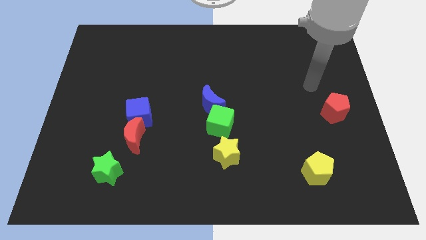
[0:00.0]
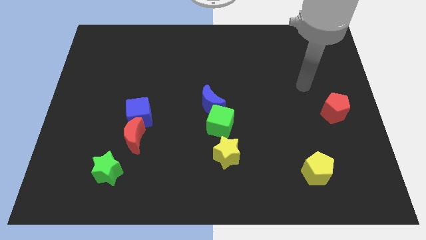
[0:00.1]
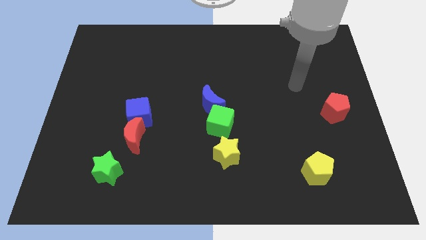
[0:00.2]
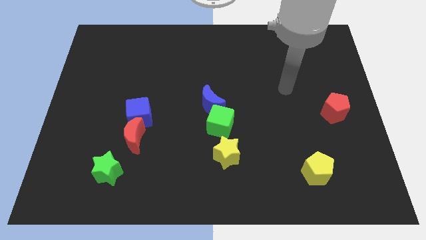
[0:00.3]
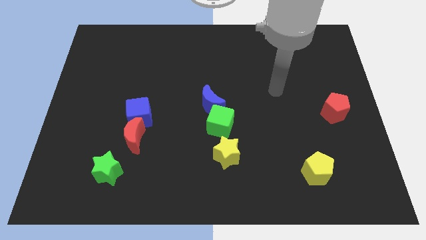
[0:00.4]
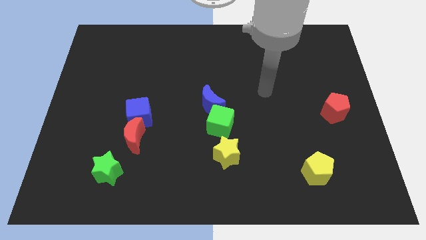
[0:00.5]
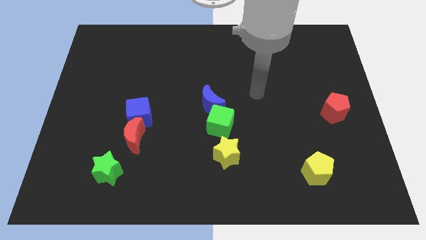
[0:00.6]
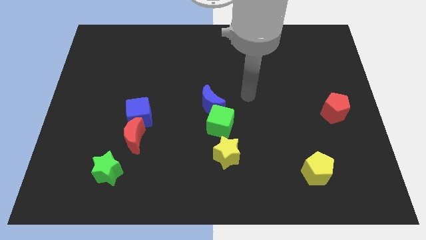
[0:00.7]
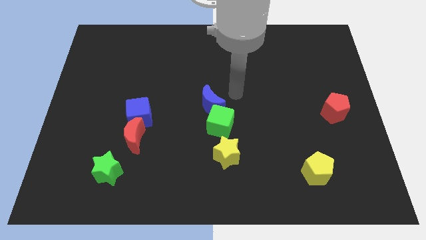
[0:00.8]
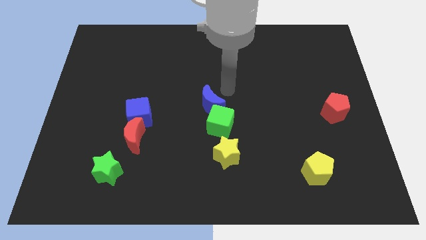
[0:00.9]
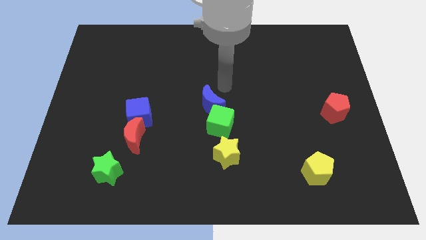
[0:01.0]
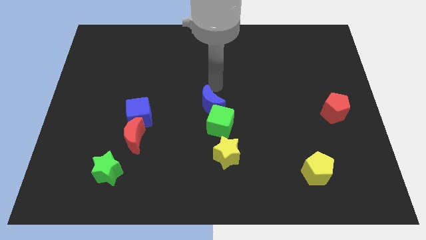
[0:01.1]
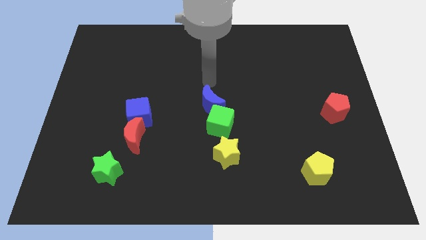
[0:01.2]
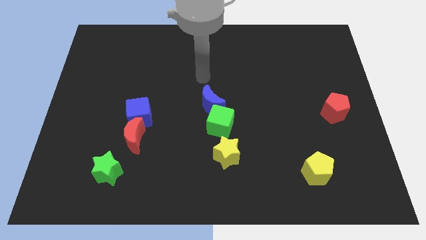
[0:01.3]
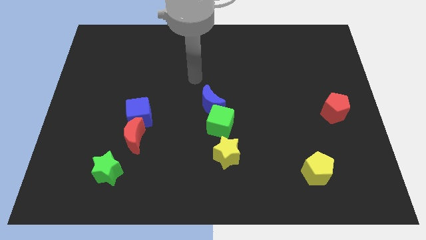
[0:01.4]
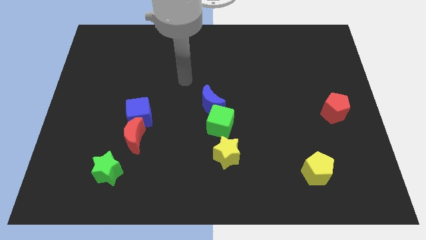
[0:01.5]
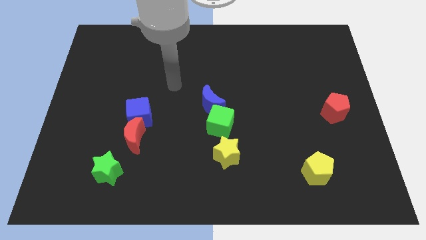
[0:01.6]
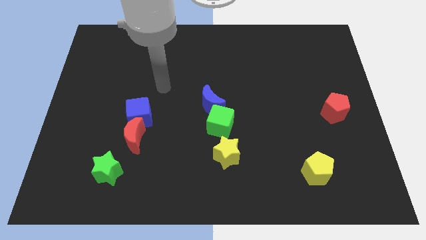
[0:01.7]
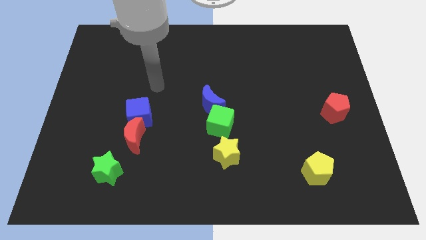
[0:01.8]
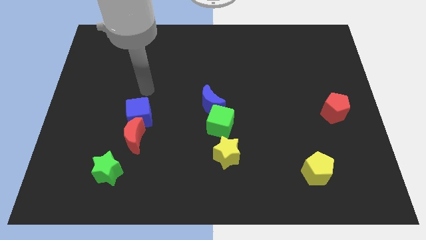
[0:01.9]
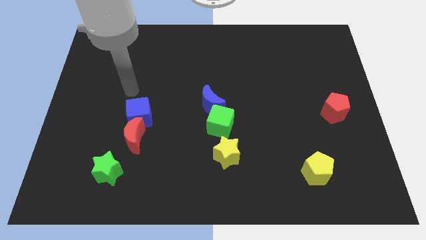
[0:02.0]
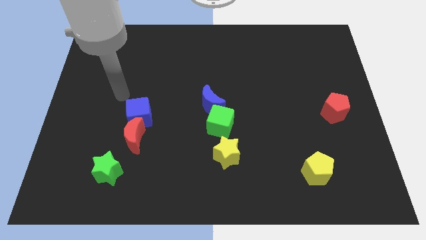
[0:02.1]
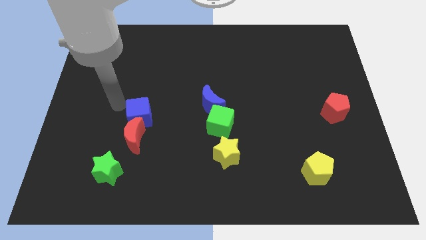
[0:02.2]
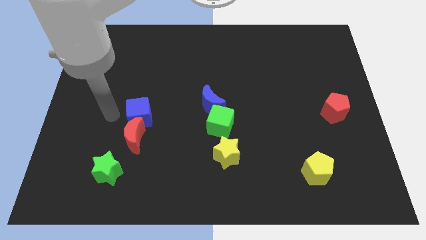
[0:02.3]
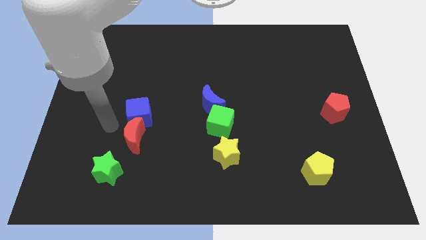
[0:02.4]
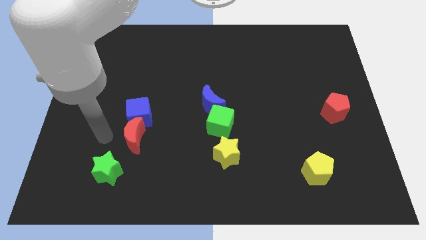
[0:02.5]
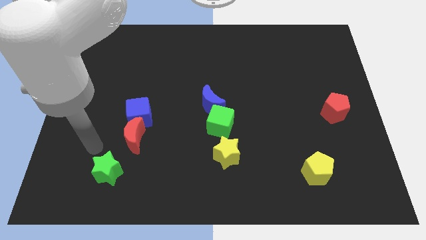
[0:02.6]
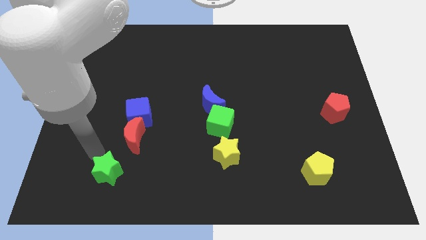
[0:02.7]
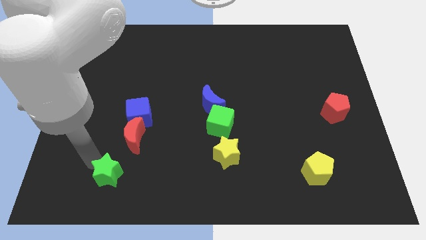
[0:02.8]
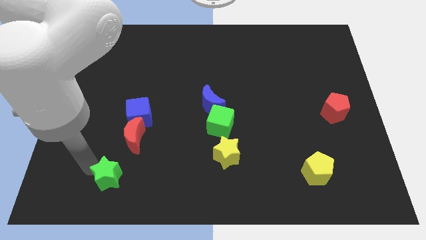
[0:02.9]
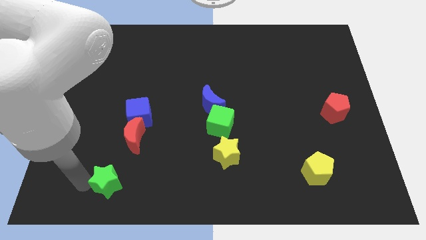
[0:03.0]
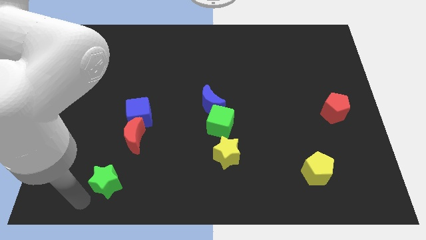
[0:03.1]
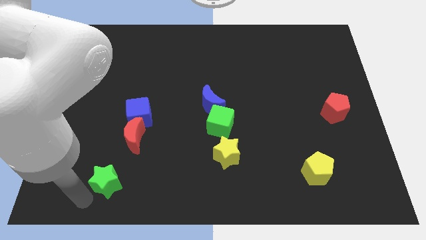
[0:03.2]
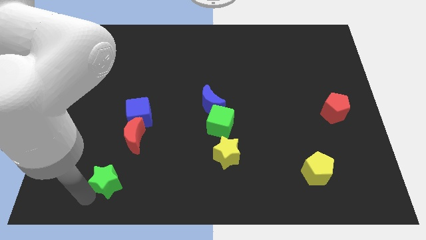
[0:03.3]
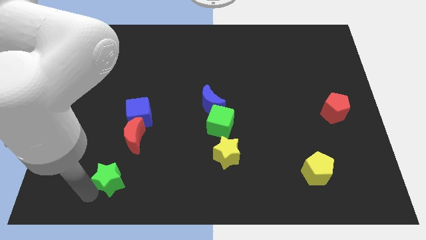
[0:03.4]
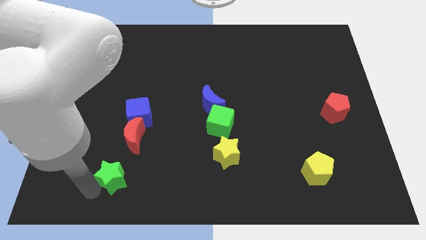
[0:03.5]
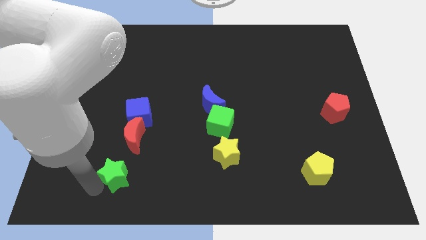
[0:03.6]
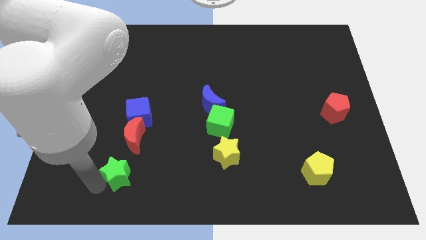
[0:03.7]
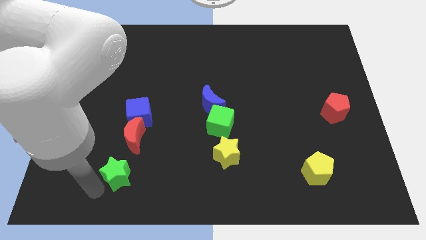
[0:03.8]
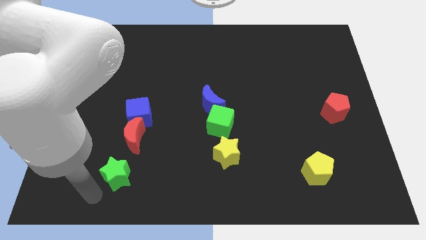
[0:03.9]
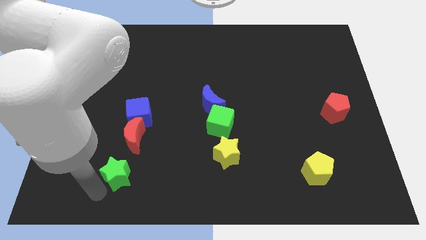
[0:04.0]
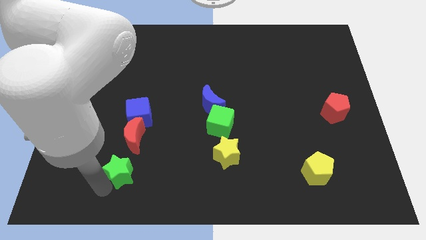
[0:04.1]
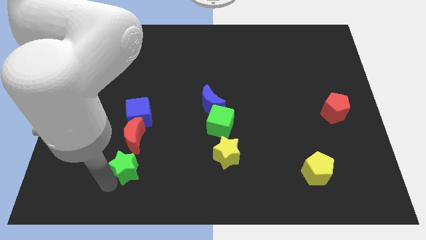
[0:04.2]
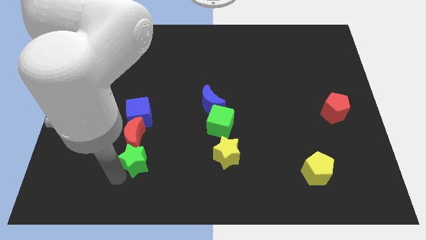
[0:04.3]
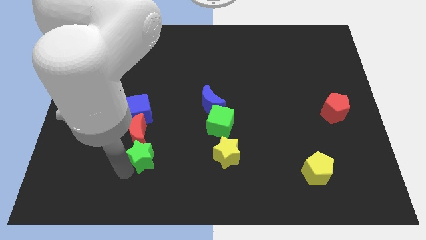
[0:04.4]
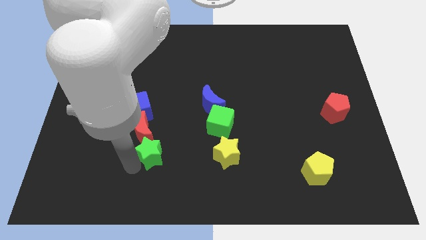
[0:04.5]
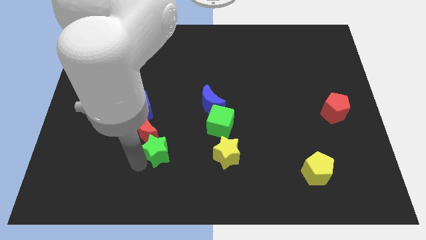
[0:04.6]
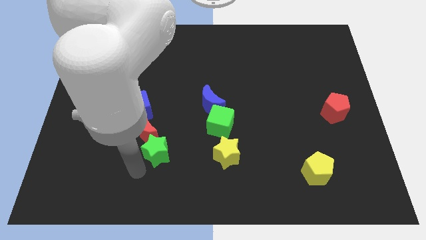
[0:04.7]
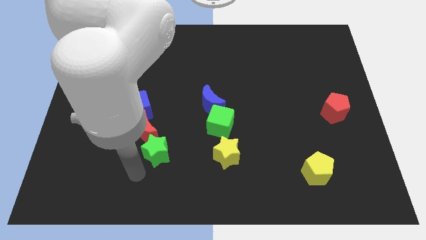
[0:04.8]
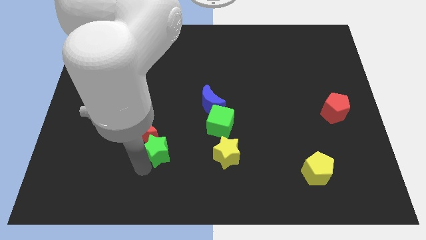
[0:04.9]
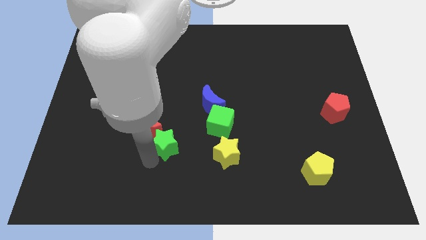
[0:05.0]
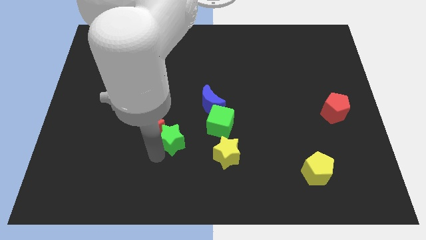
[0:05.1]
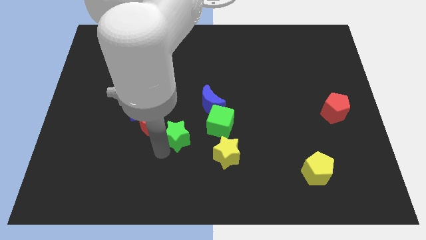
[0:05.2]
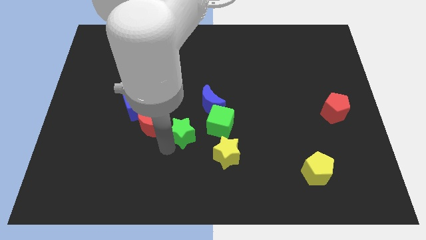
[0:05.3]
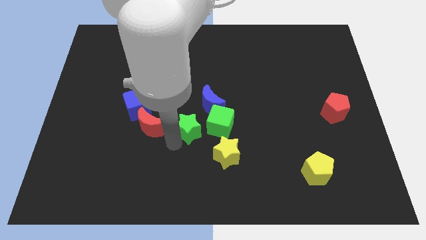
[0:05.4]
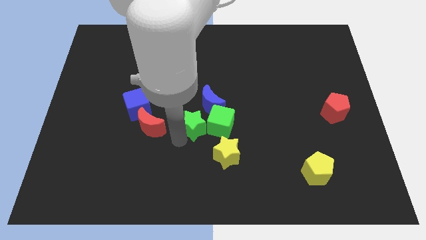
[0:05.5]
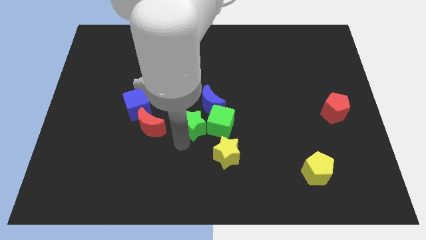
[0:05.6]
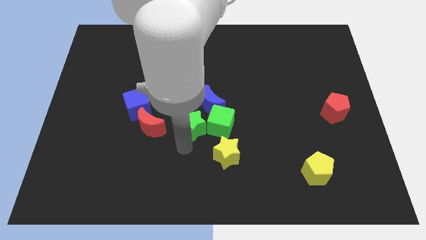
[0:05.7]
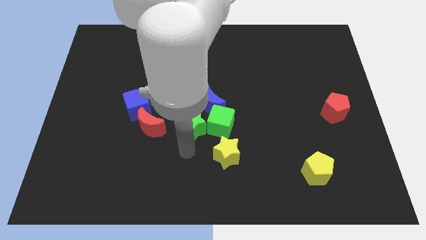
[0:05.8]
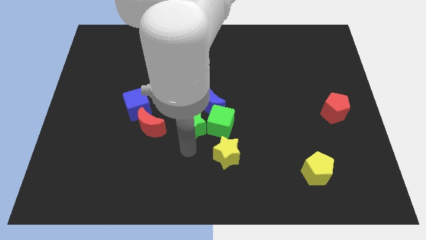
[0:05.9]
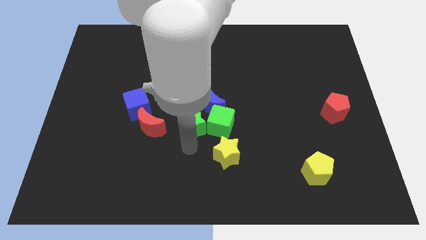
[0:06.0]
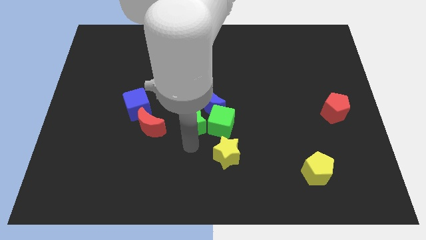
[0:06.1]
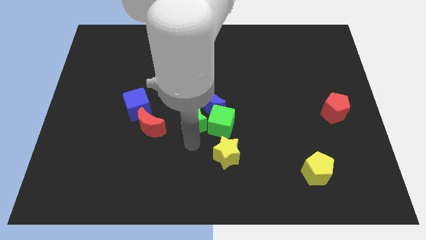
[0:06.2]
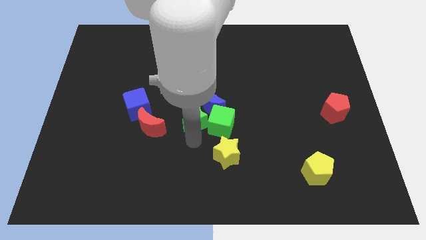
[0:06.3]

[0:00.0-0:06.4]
put the green star to the blue moon

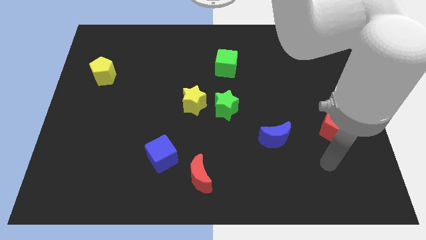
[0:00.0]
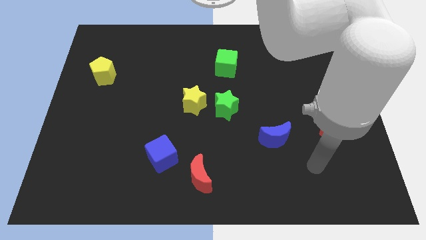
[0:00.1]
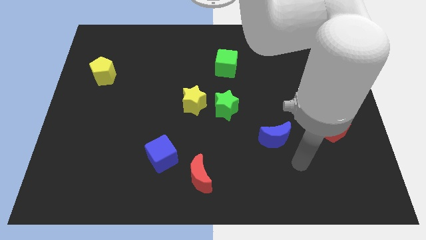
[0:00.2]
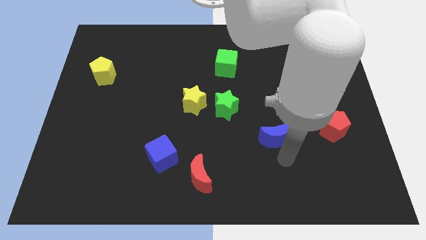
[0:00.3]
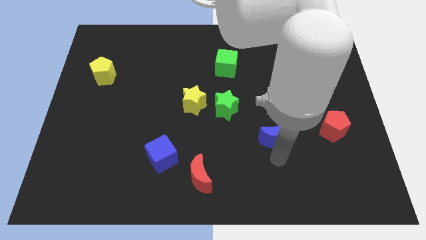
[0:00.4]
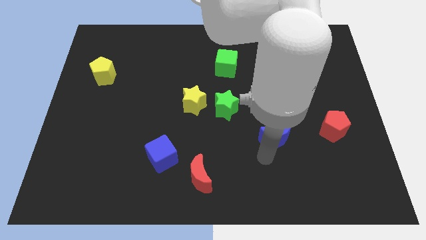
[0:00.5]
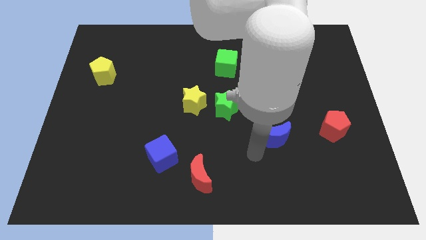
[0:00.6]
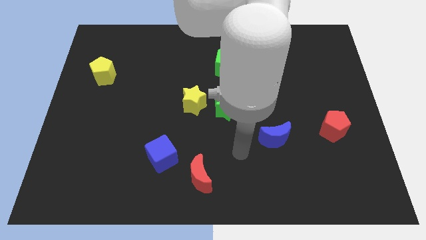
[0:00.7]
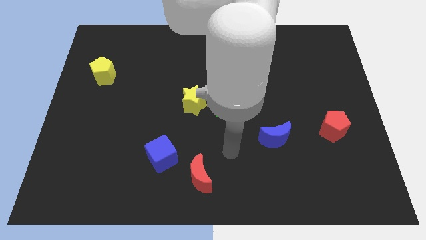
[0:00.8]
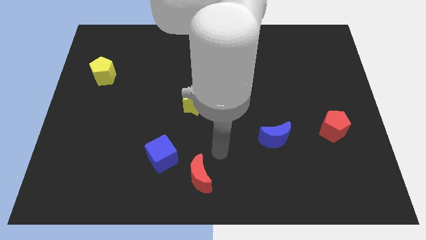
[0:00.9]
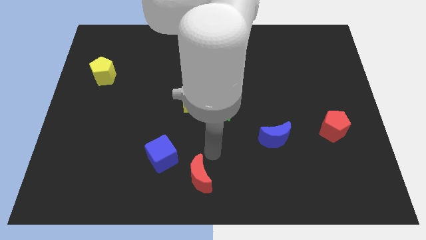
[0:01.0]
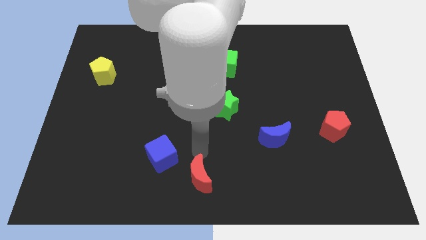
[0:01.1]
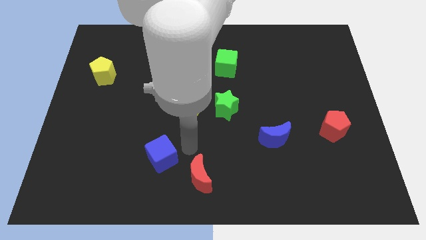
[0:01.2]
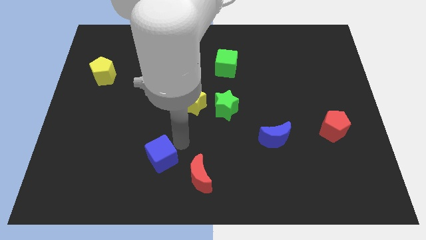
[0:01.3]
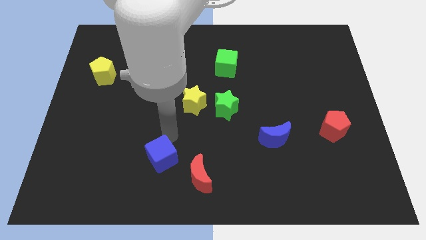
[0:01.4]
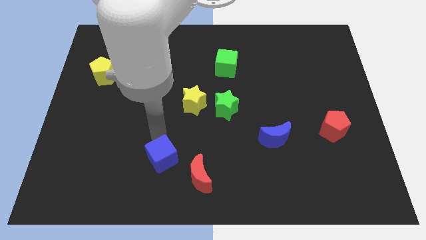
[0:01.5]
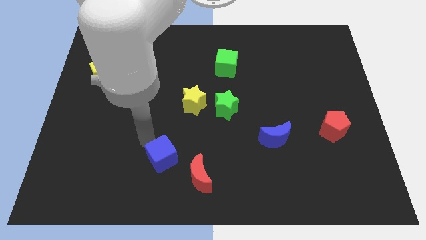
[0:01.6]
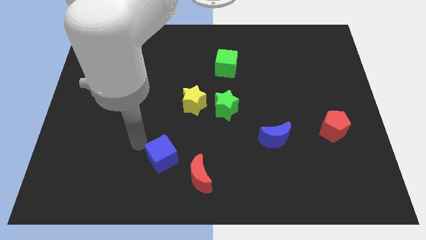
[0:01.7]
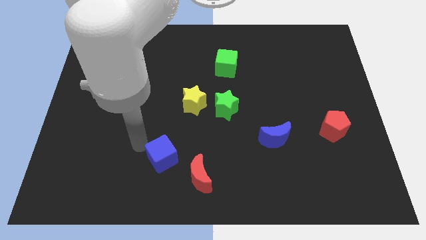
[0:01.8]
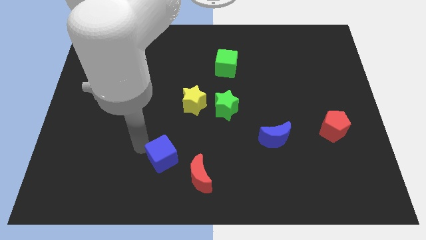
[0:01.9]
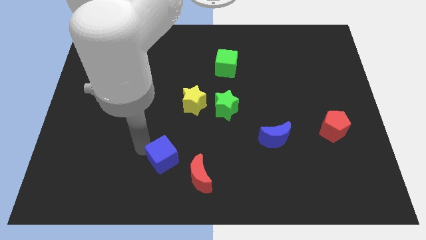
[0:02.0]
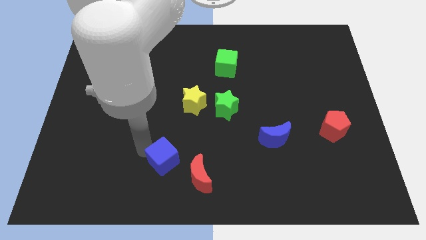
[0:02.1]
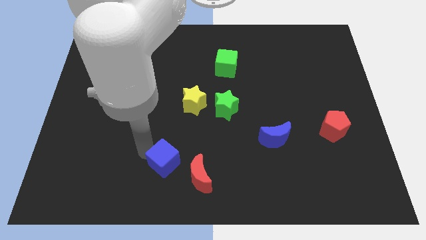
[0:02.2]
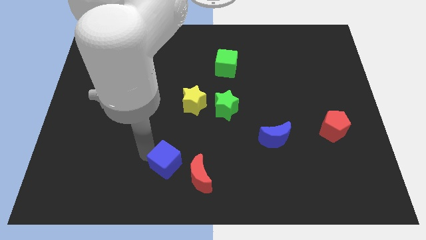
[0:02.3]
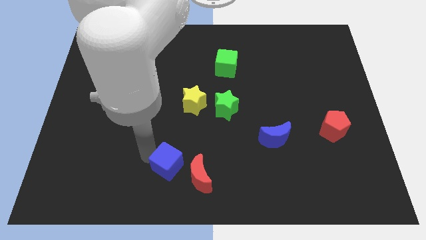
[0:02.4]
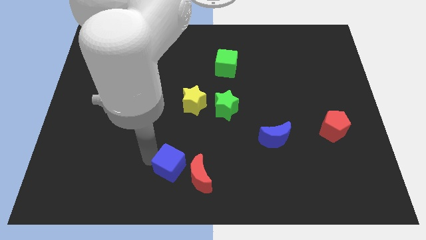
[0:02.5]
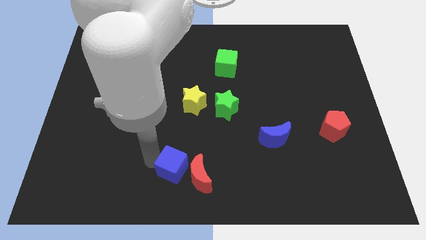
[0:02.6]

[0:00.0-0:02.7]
slide the blue cube close to the red moon
